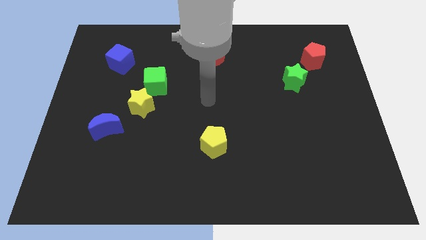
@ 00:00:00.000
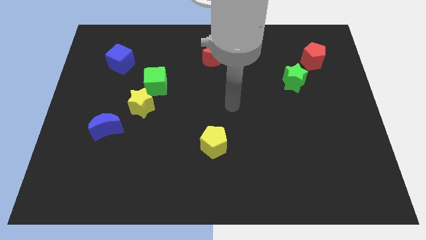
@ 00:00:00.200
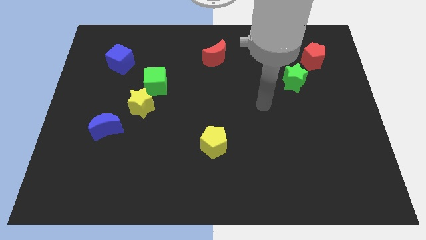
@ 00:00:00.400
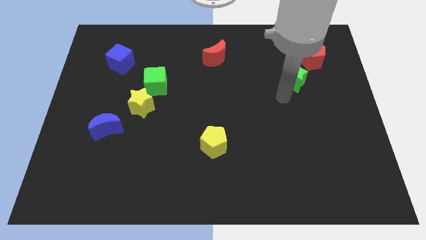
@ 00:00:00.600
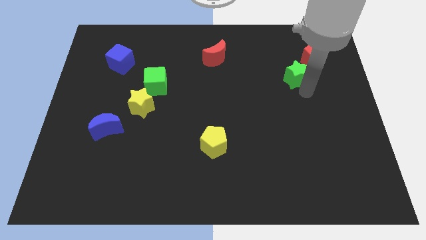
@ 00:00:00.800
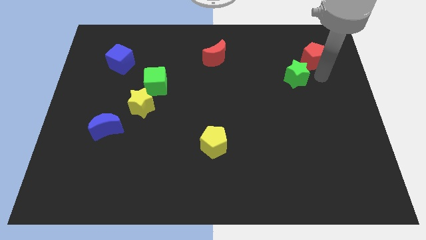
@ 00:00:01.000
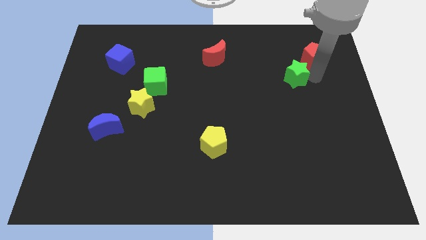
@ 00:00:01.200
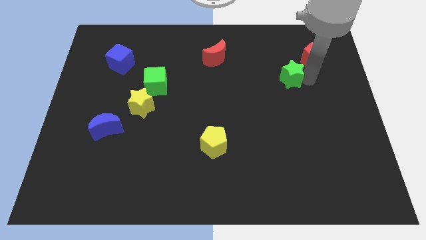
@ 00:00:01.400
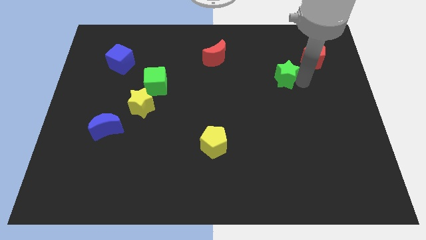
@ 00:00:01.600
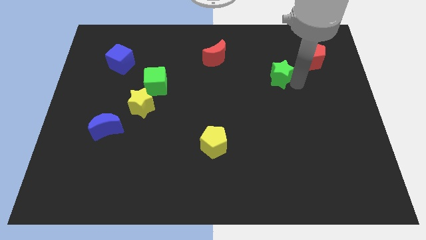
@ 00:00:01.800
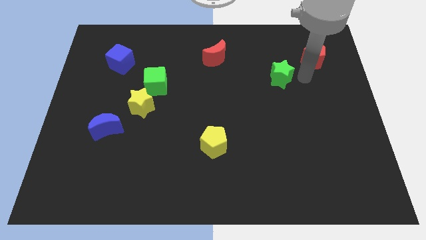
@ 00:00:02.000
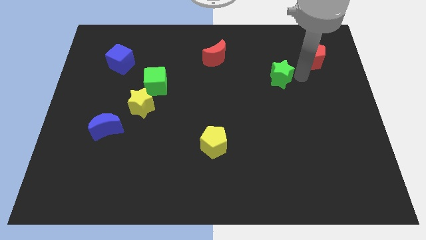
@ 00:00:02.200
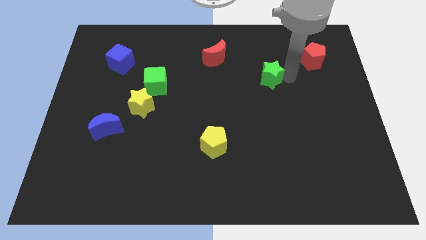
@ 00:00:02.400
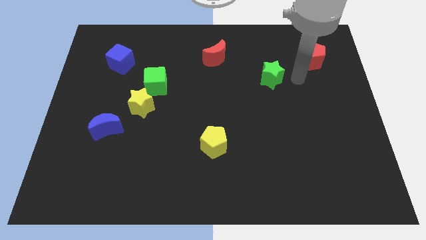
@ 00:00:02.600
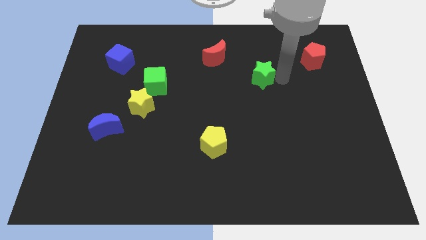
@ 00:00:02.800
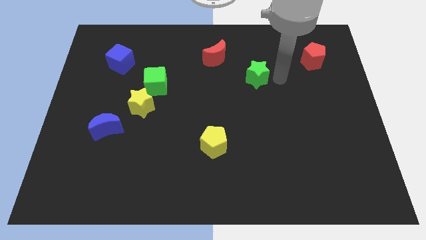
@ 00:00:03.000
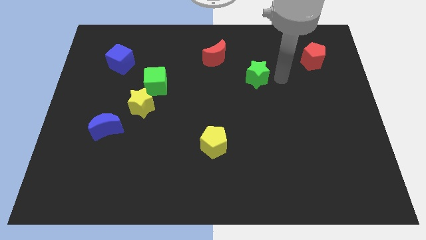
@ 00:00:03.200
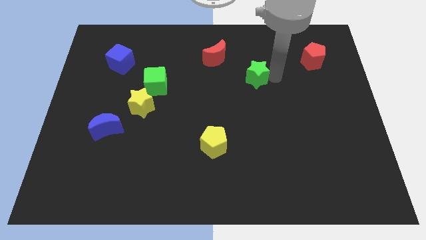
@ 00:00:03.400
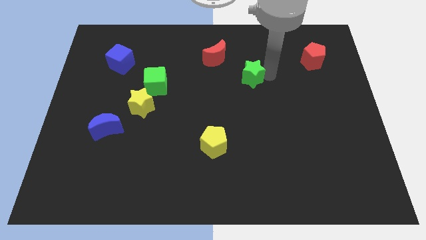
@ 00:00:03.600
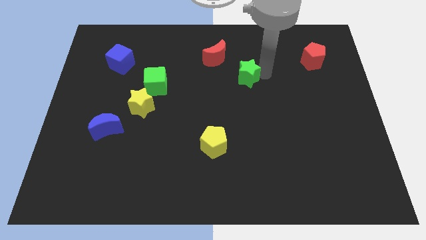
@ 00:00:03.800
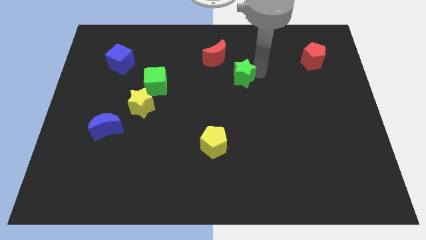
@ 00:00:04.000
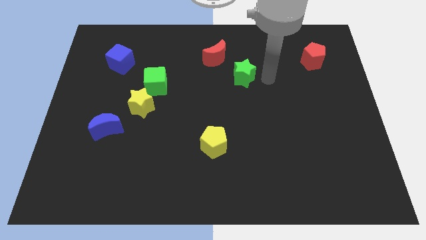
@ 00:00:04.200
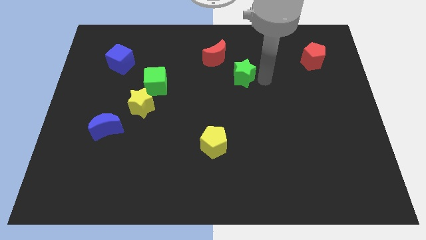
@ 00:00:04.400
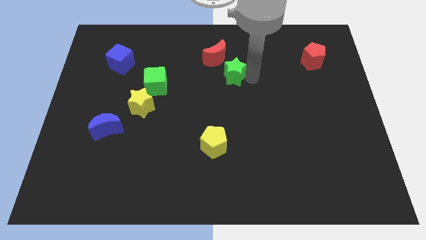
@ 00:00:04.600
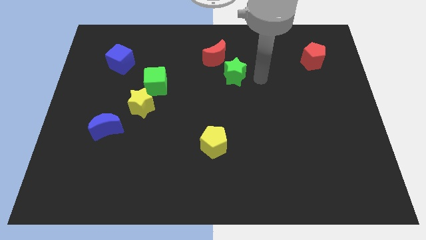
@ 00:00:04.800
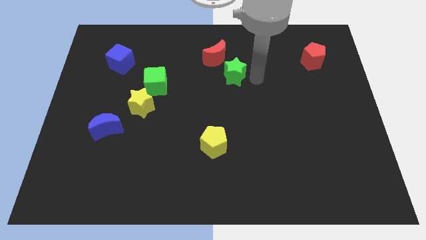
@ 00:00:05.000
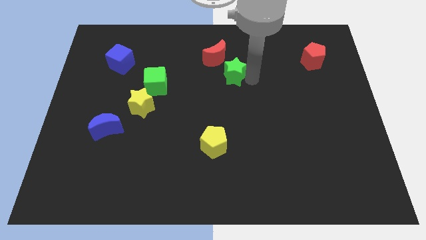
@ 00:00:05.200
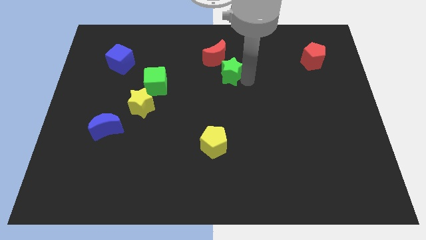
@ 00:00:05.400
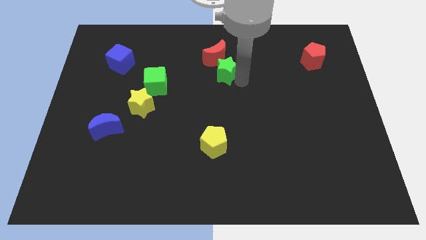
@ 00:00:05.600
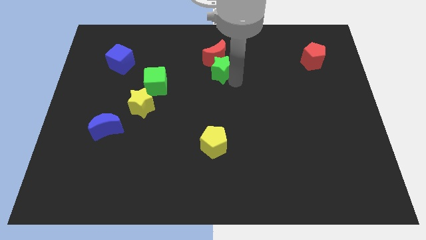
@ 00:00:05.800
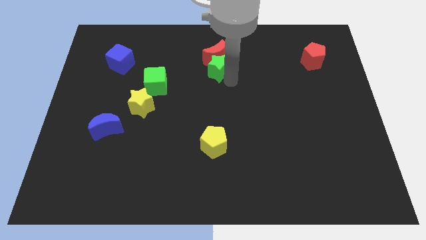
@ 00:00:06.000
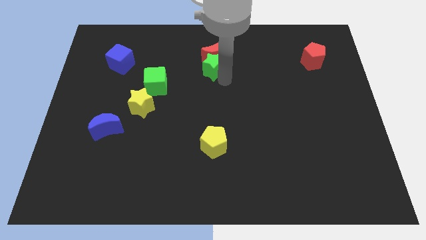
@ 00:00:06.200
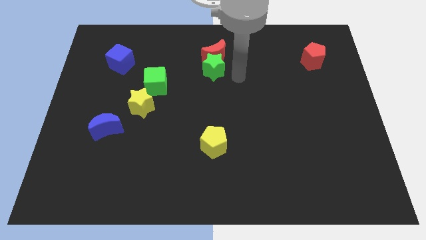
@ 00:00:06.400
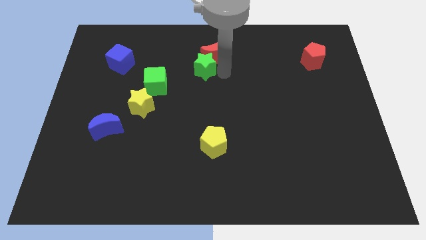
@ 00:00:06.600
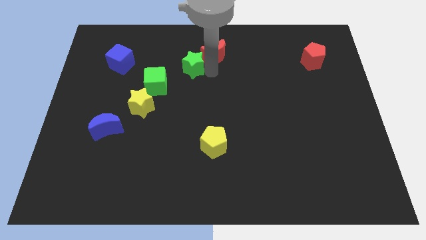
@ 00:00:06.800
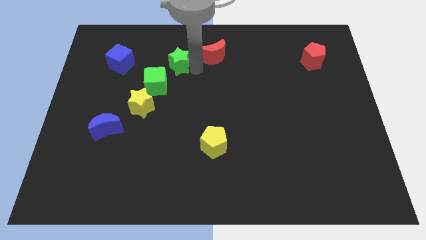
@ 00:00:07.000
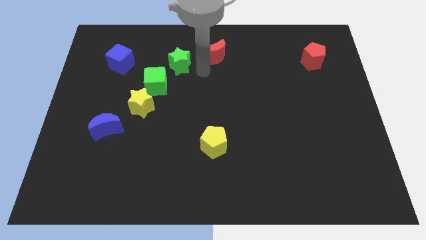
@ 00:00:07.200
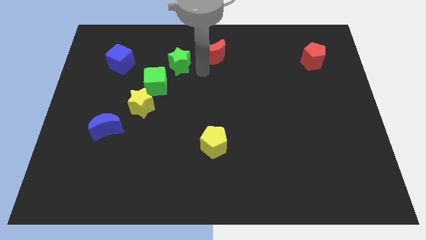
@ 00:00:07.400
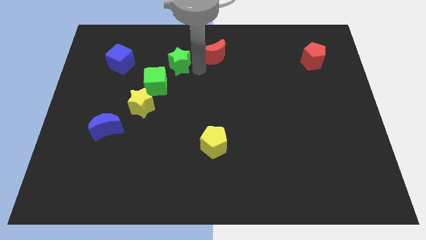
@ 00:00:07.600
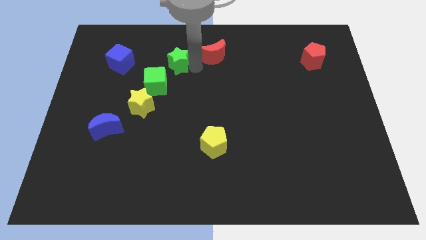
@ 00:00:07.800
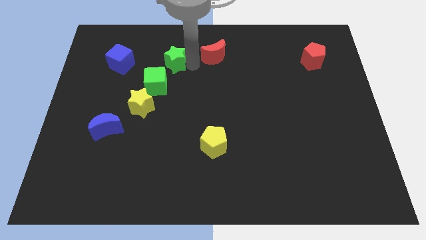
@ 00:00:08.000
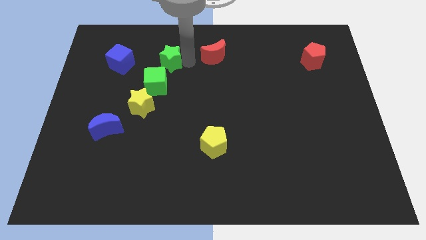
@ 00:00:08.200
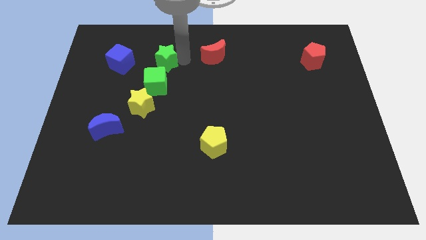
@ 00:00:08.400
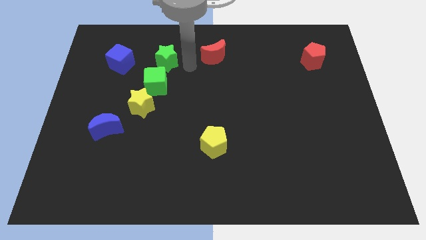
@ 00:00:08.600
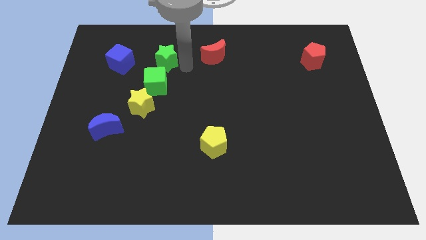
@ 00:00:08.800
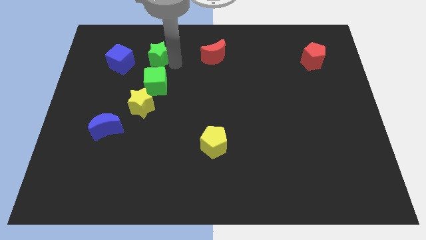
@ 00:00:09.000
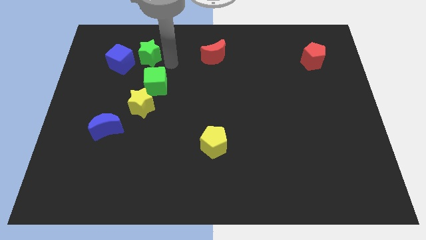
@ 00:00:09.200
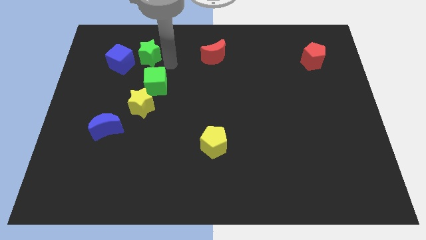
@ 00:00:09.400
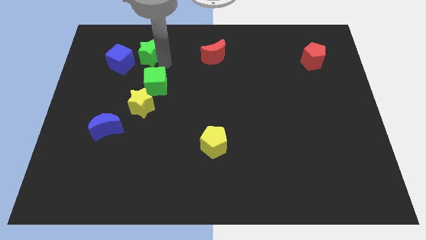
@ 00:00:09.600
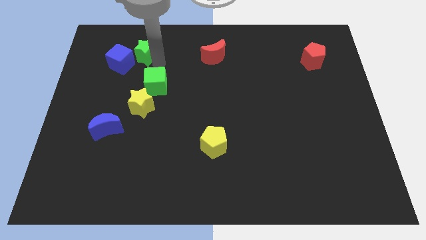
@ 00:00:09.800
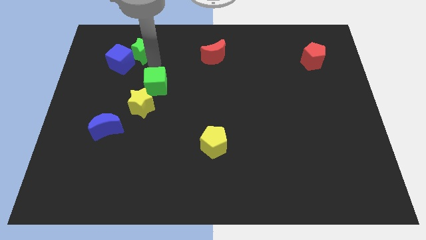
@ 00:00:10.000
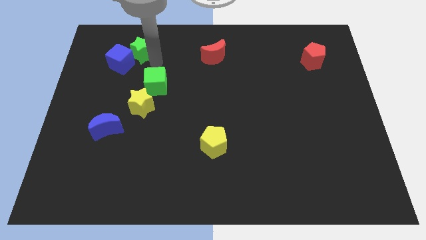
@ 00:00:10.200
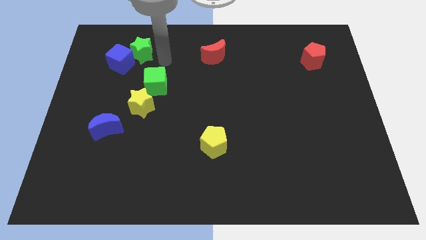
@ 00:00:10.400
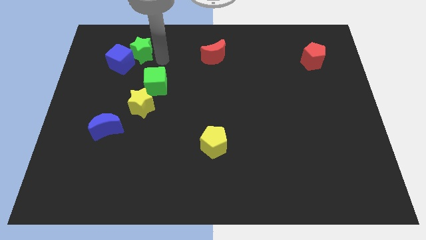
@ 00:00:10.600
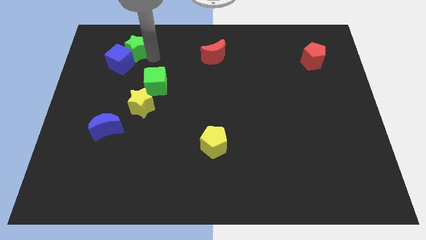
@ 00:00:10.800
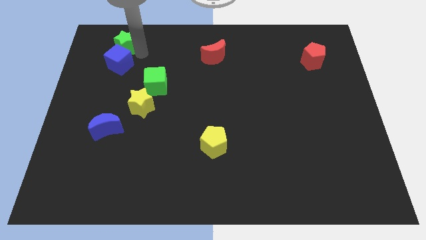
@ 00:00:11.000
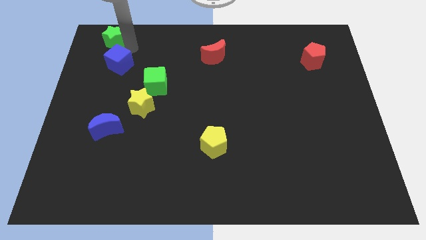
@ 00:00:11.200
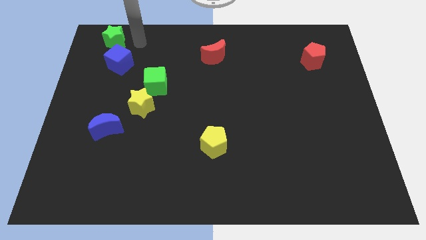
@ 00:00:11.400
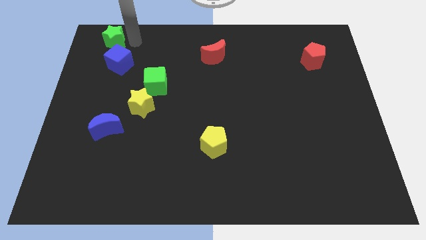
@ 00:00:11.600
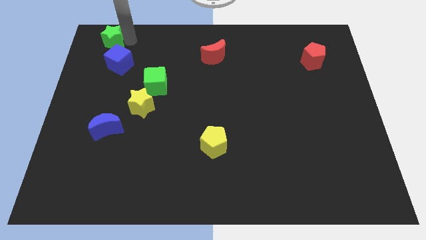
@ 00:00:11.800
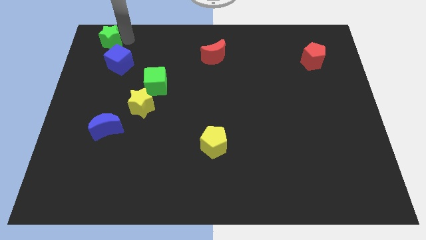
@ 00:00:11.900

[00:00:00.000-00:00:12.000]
move the green star to the top left corner
